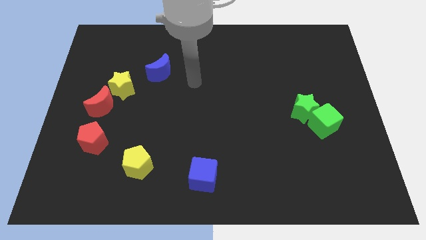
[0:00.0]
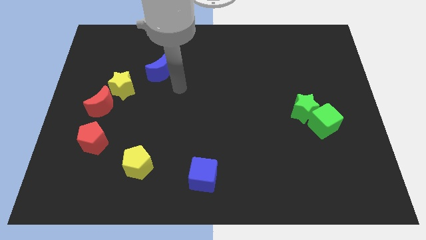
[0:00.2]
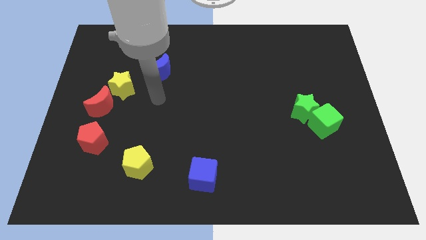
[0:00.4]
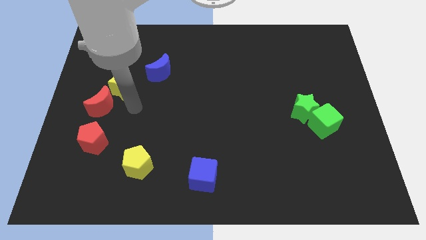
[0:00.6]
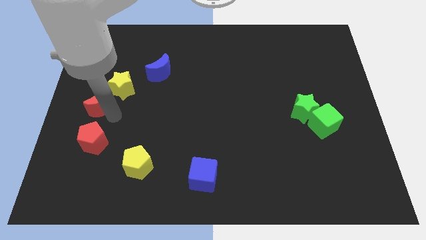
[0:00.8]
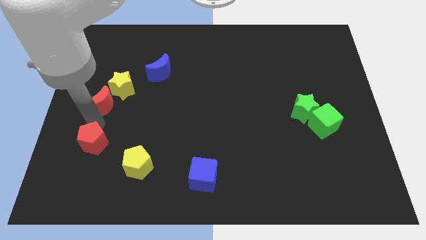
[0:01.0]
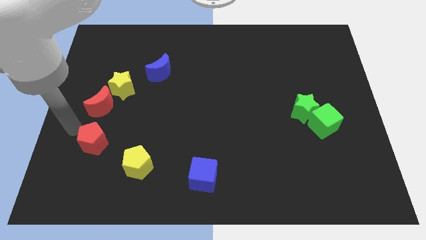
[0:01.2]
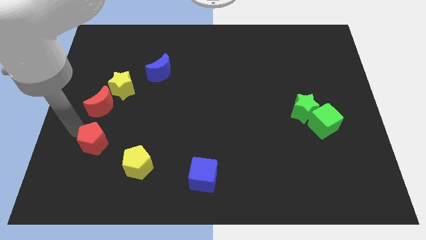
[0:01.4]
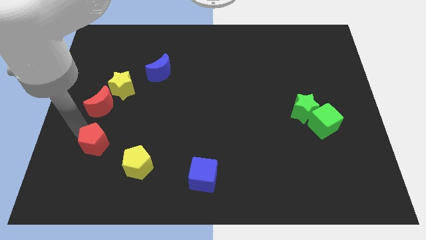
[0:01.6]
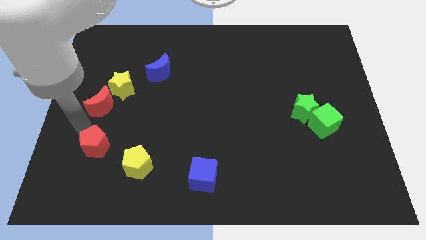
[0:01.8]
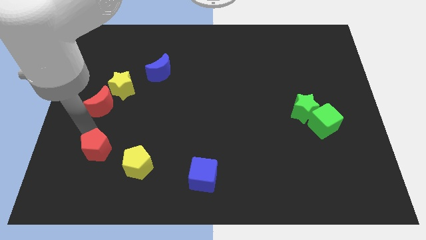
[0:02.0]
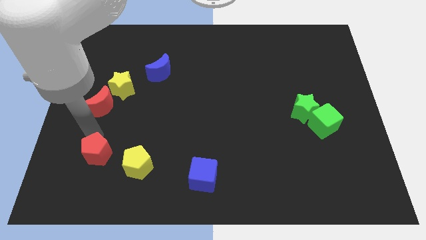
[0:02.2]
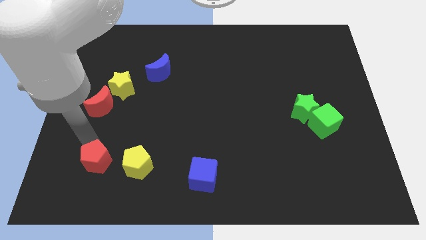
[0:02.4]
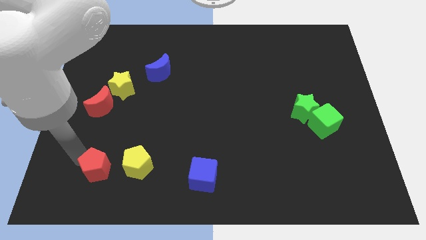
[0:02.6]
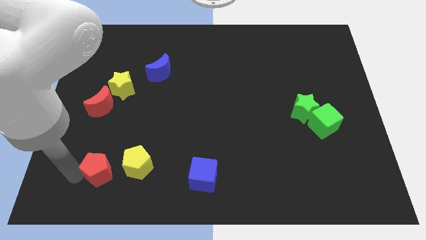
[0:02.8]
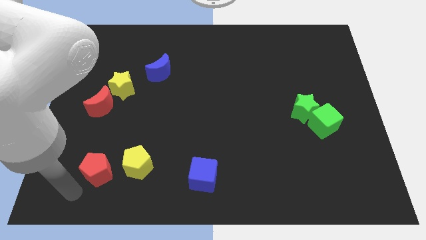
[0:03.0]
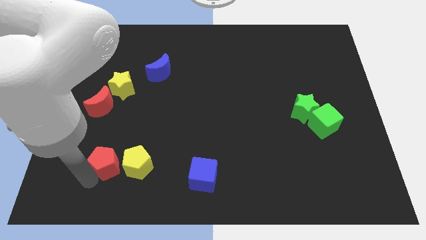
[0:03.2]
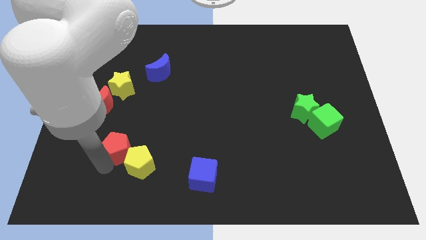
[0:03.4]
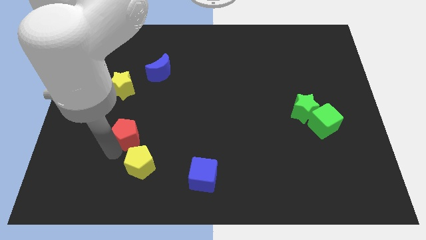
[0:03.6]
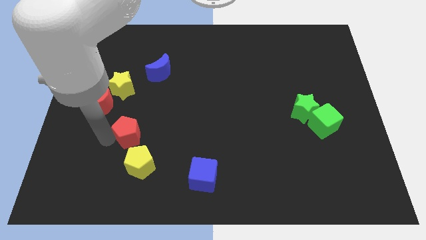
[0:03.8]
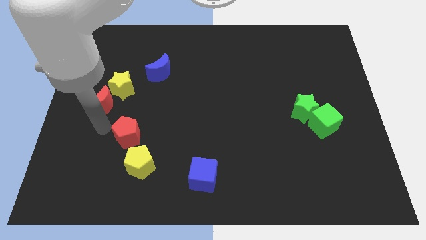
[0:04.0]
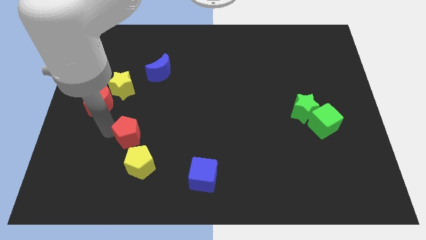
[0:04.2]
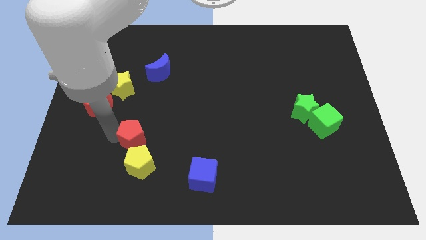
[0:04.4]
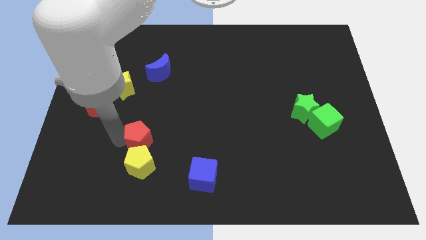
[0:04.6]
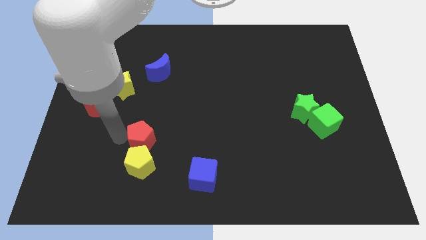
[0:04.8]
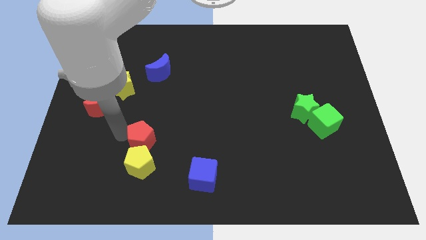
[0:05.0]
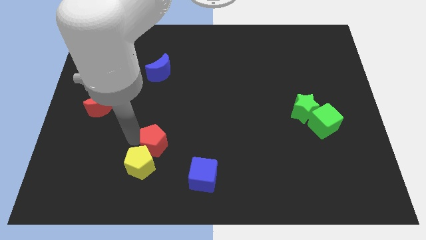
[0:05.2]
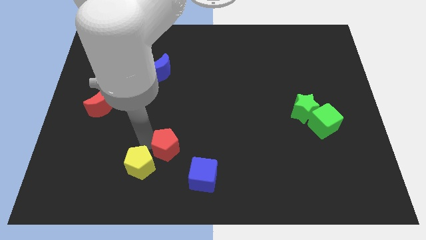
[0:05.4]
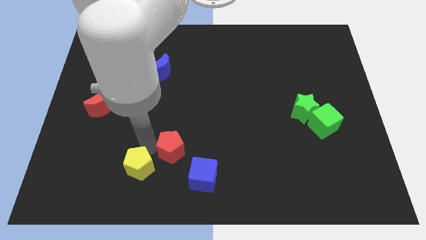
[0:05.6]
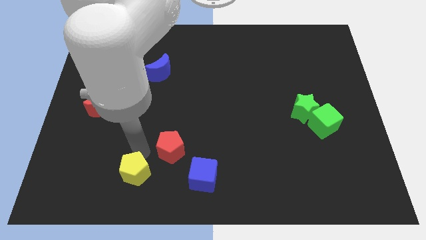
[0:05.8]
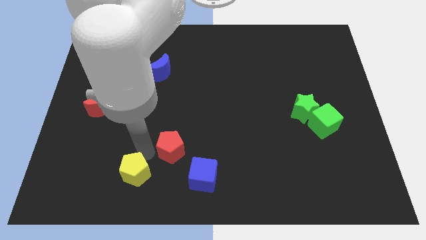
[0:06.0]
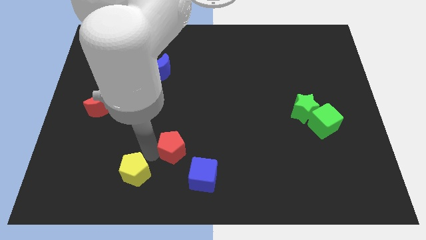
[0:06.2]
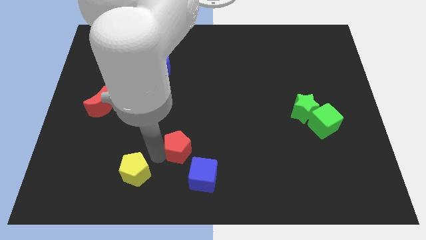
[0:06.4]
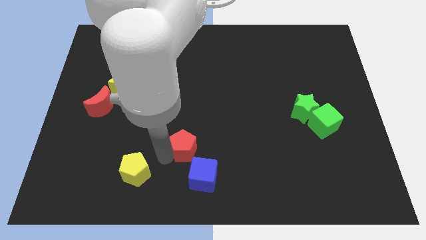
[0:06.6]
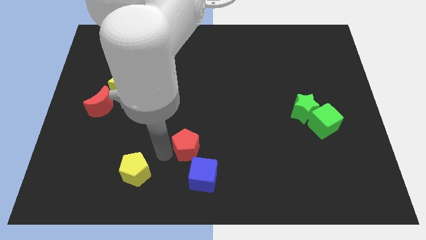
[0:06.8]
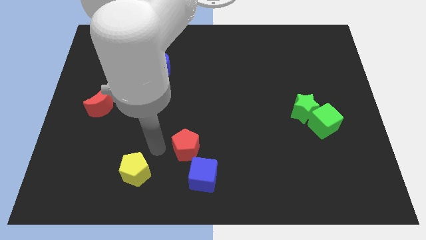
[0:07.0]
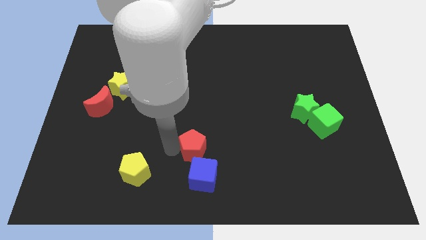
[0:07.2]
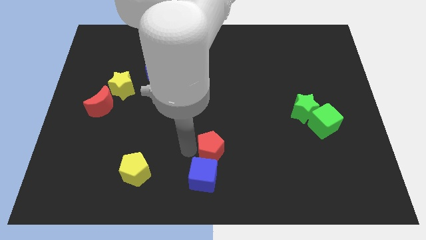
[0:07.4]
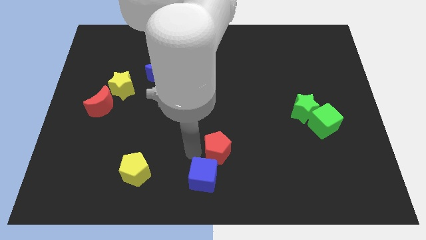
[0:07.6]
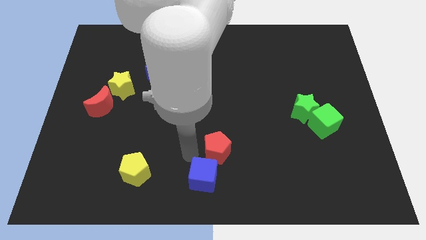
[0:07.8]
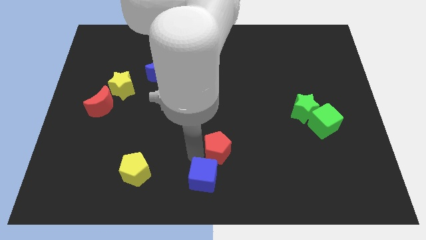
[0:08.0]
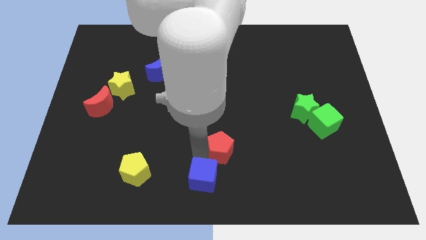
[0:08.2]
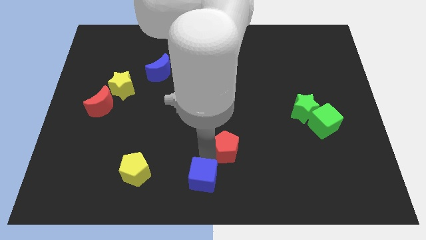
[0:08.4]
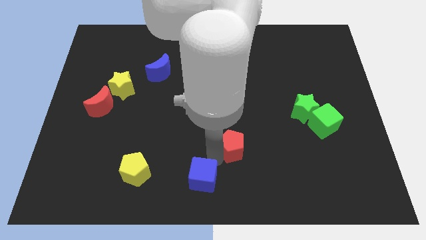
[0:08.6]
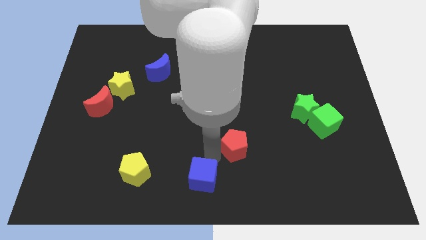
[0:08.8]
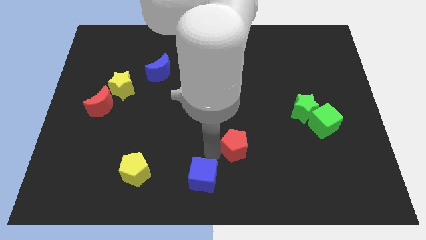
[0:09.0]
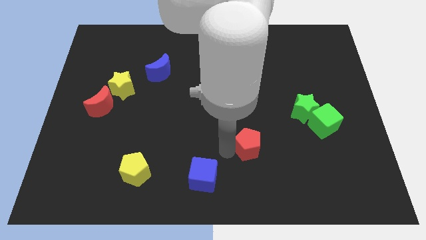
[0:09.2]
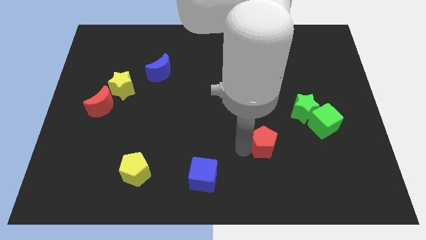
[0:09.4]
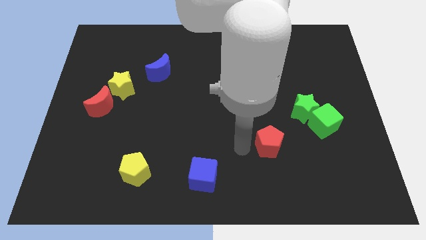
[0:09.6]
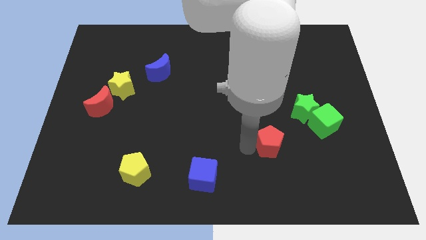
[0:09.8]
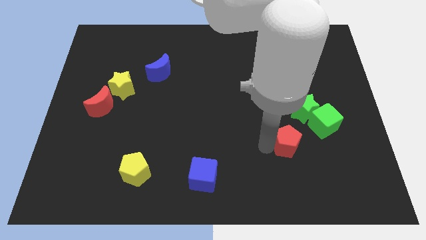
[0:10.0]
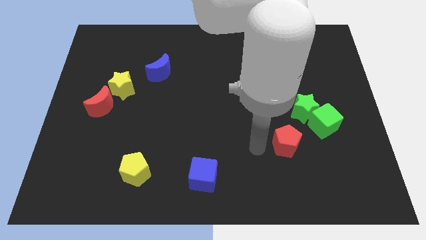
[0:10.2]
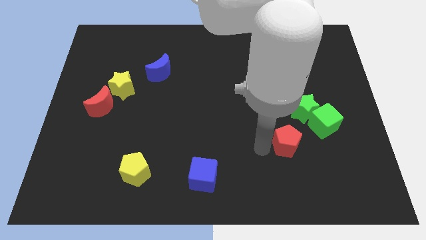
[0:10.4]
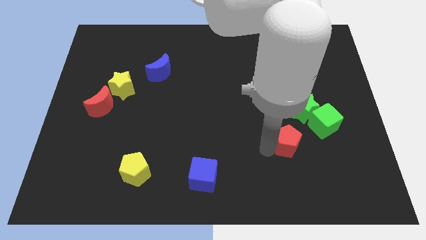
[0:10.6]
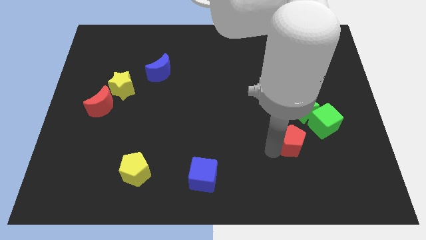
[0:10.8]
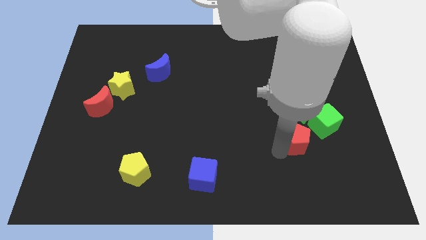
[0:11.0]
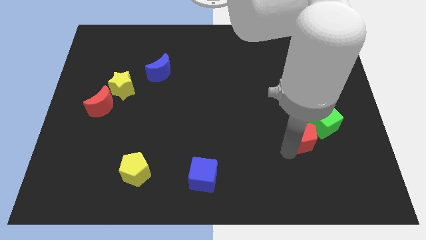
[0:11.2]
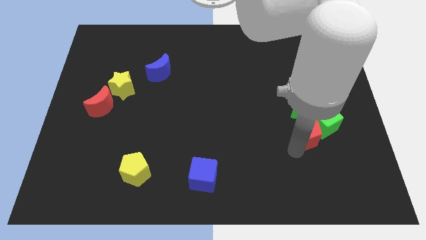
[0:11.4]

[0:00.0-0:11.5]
put the red pentagon next to the green cube

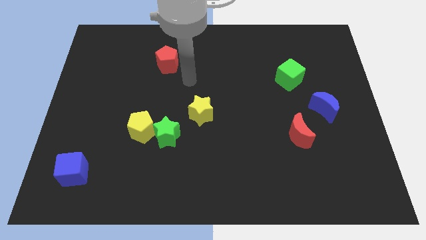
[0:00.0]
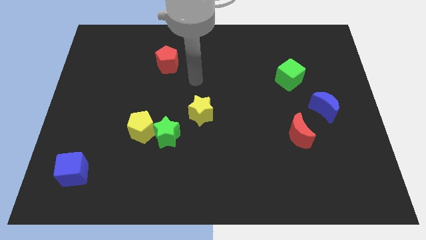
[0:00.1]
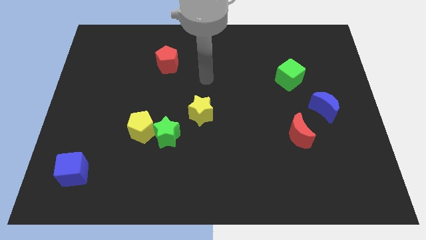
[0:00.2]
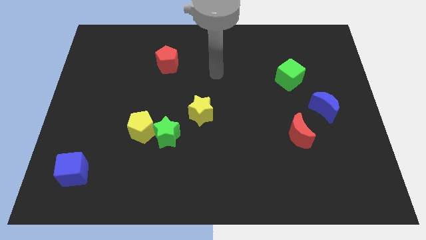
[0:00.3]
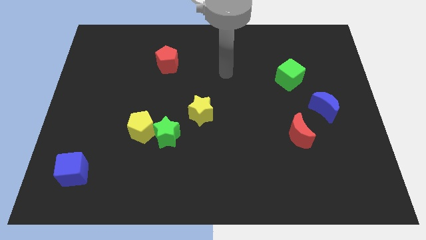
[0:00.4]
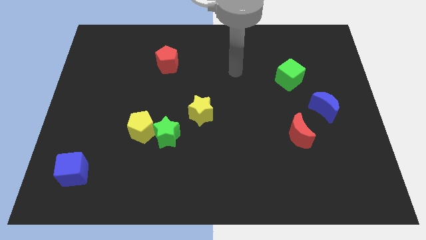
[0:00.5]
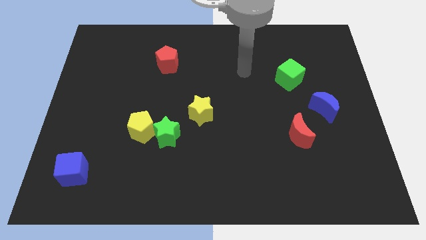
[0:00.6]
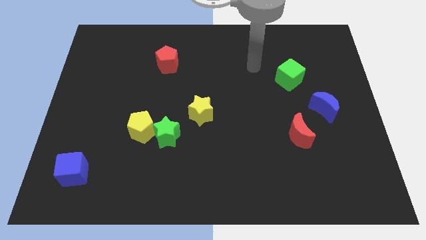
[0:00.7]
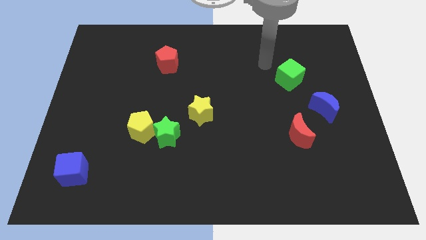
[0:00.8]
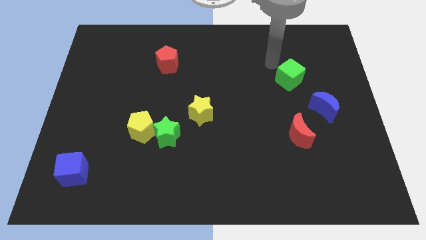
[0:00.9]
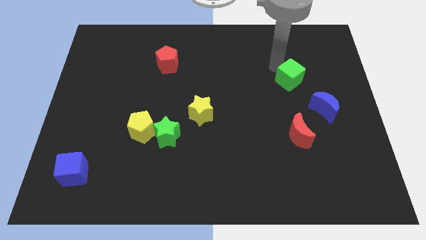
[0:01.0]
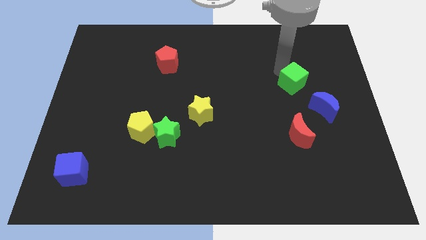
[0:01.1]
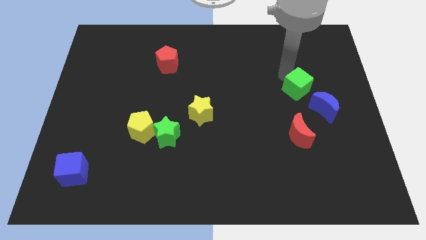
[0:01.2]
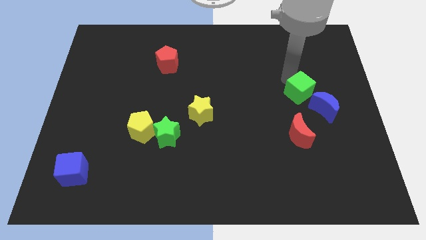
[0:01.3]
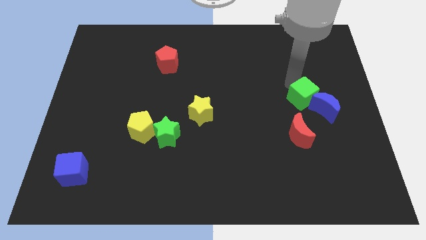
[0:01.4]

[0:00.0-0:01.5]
slide the green cube close to the blue moon
